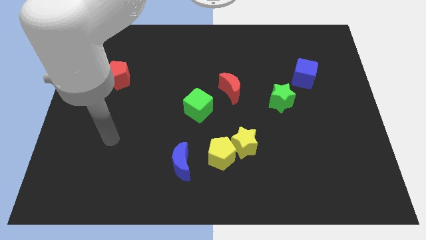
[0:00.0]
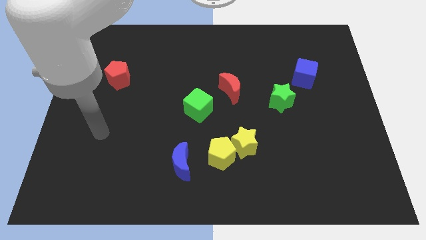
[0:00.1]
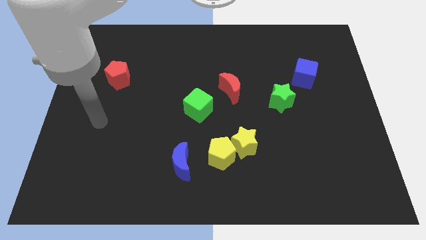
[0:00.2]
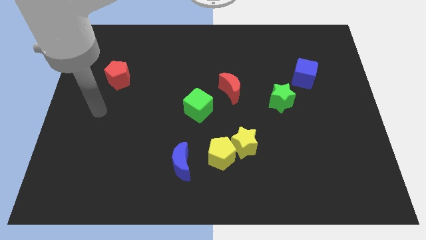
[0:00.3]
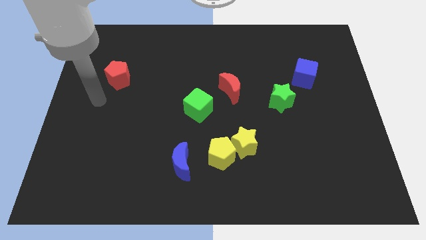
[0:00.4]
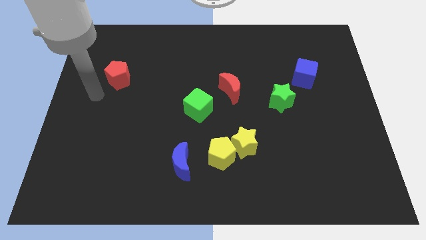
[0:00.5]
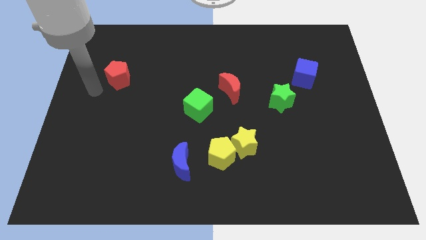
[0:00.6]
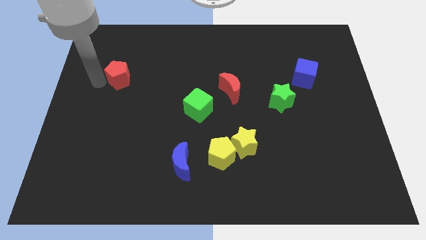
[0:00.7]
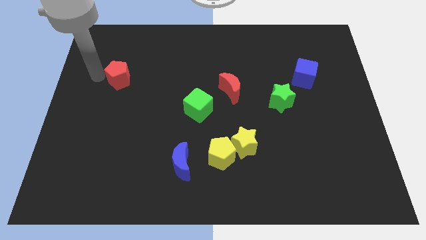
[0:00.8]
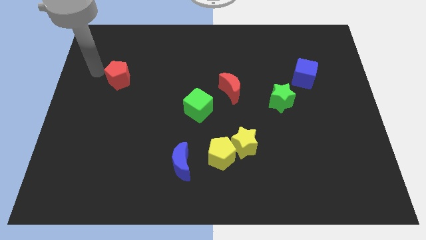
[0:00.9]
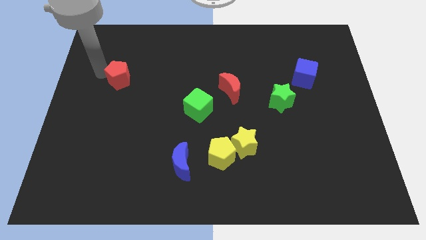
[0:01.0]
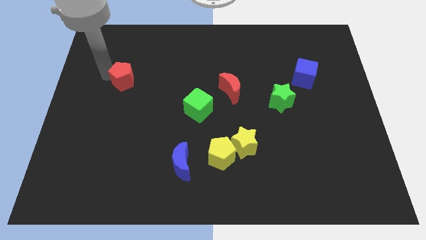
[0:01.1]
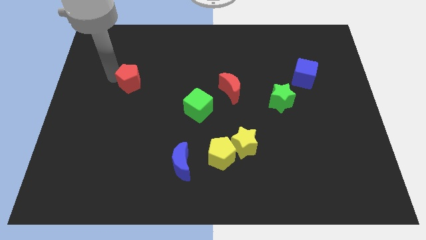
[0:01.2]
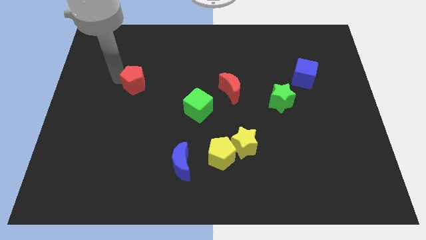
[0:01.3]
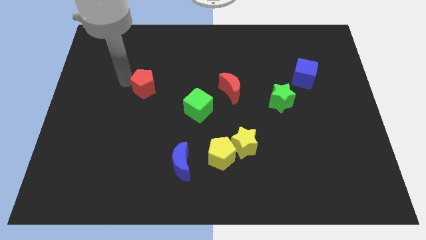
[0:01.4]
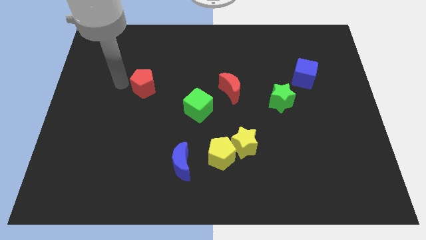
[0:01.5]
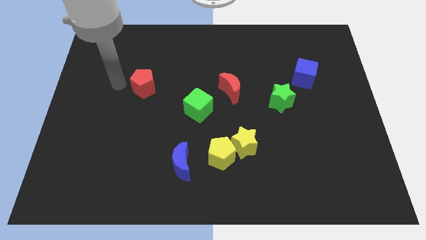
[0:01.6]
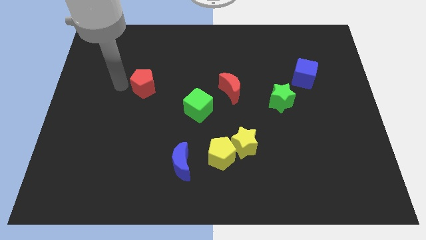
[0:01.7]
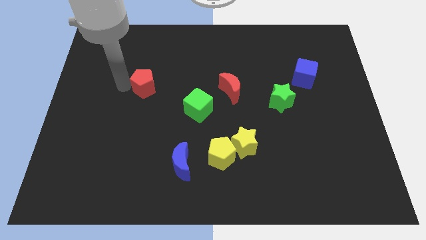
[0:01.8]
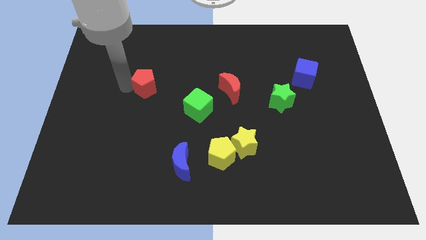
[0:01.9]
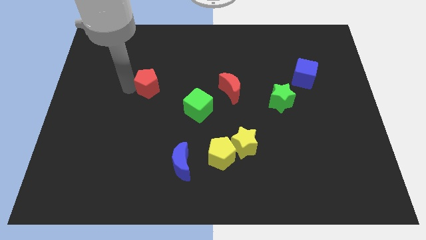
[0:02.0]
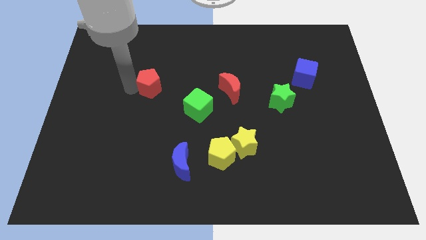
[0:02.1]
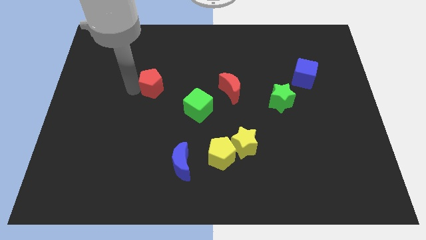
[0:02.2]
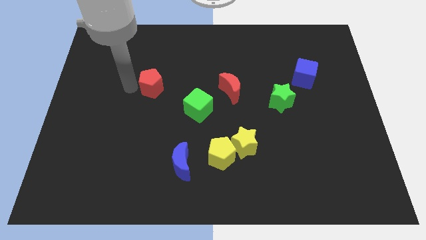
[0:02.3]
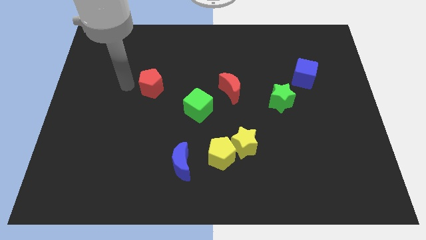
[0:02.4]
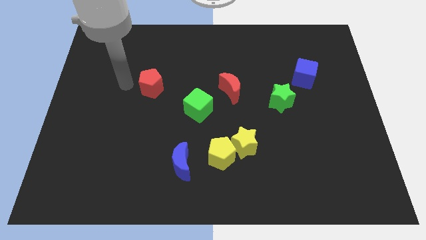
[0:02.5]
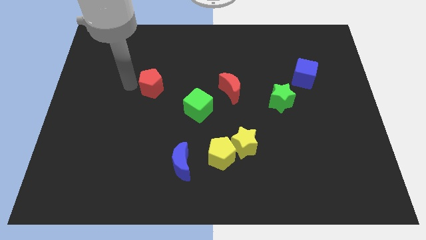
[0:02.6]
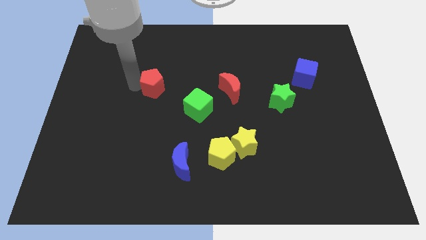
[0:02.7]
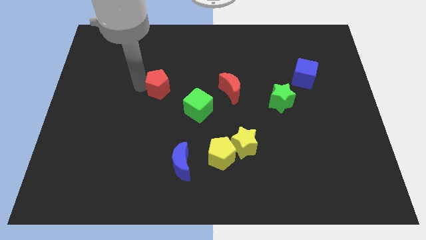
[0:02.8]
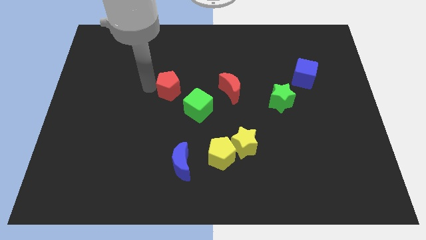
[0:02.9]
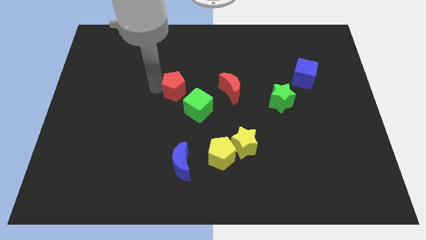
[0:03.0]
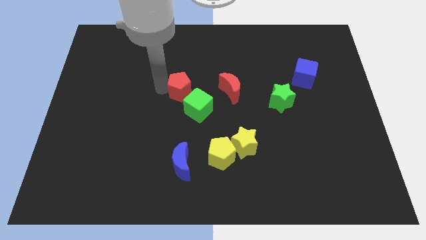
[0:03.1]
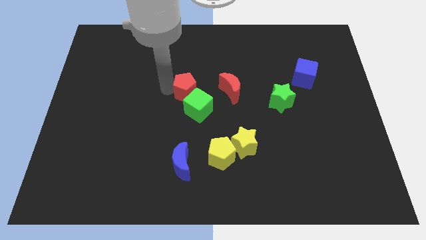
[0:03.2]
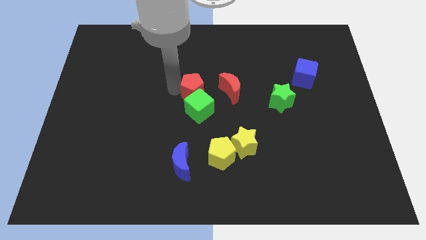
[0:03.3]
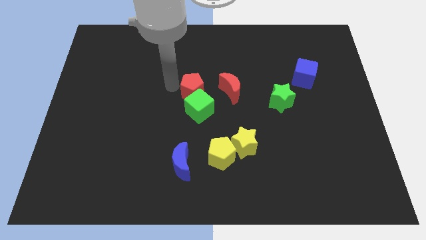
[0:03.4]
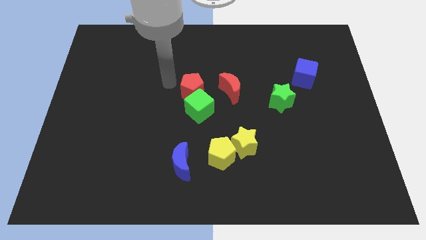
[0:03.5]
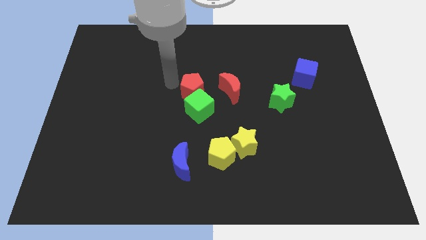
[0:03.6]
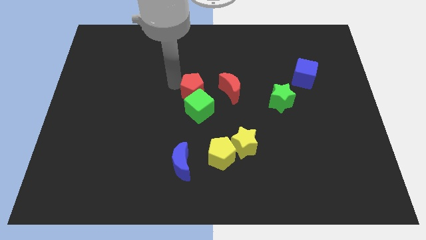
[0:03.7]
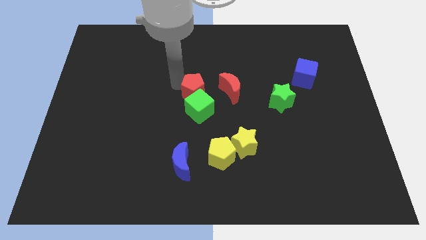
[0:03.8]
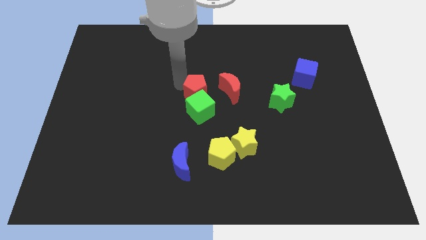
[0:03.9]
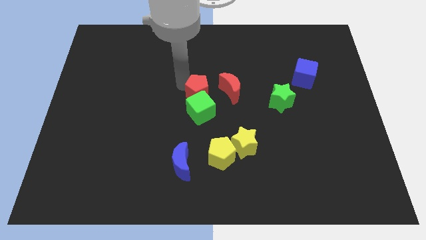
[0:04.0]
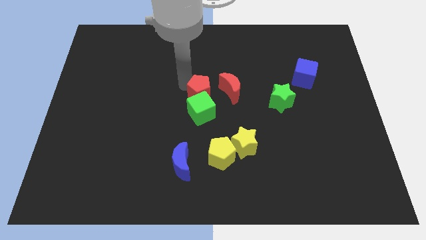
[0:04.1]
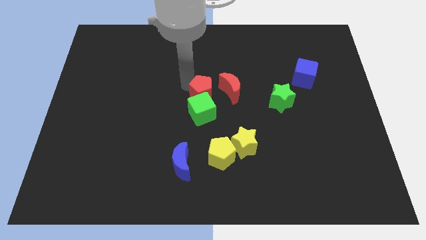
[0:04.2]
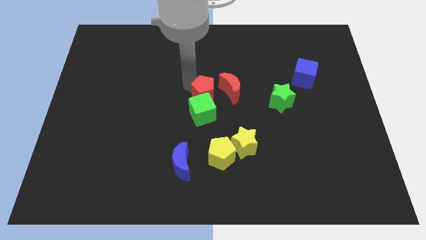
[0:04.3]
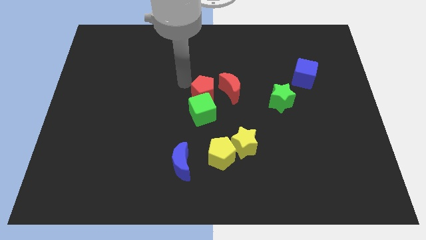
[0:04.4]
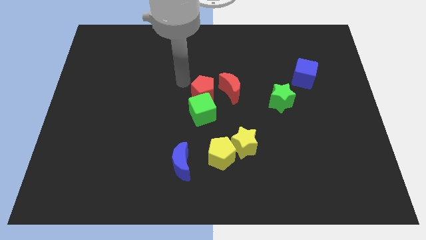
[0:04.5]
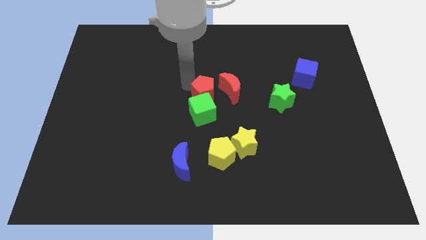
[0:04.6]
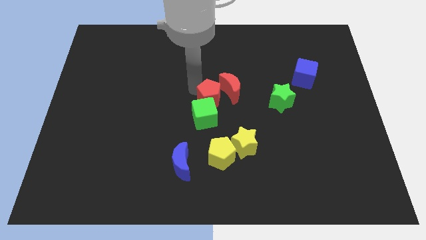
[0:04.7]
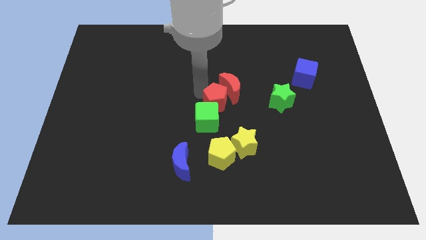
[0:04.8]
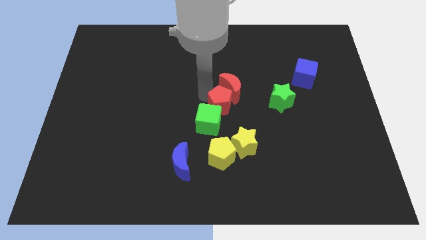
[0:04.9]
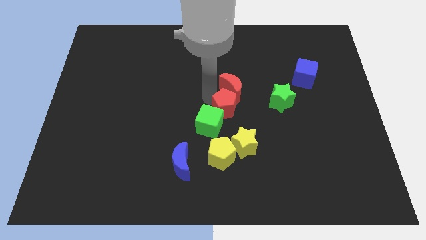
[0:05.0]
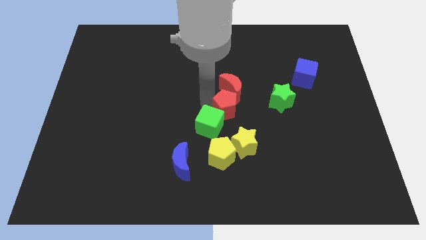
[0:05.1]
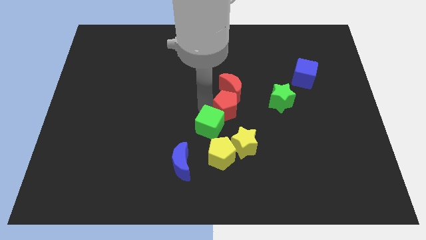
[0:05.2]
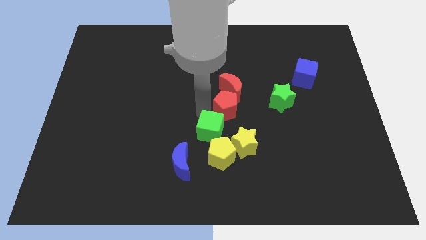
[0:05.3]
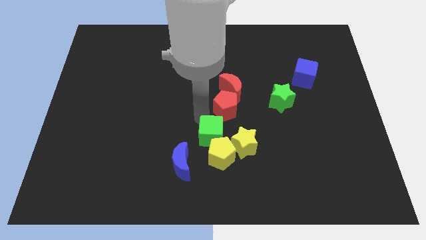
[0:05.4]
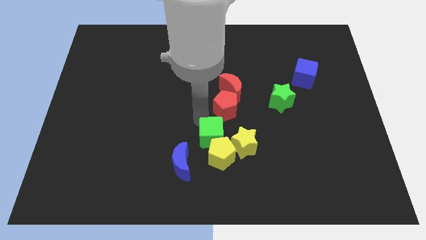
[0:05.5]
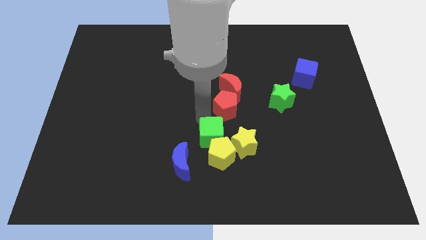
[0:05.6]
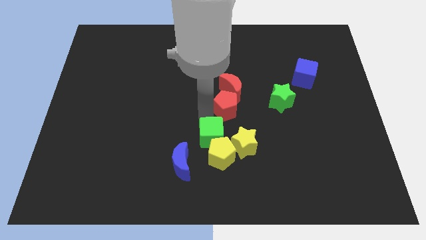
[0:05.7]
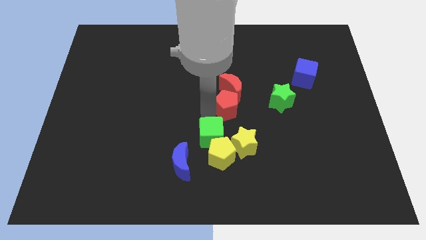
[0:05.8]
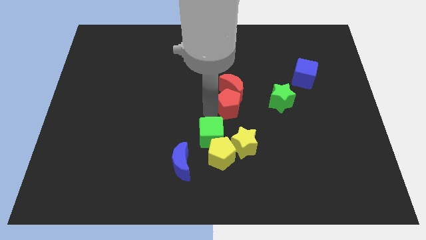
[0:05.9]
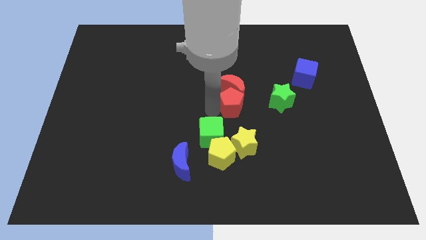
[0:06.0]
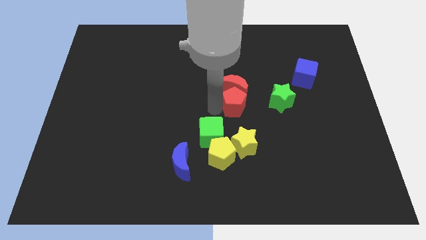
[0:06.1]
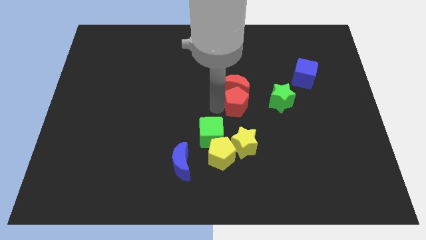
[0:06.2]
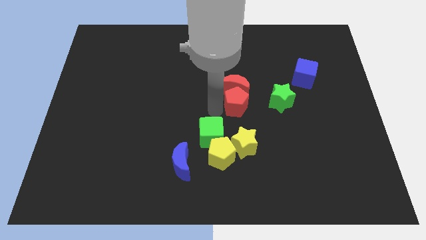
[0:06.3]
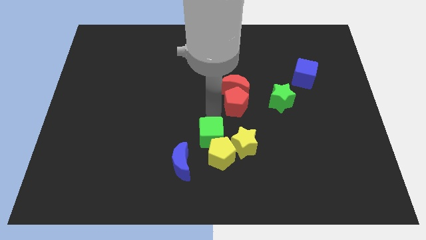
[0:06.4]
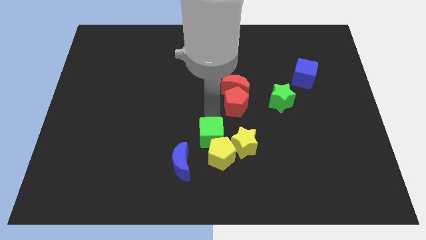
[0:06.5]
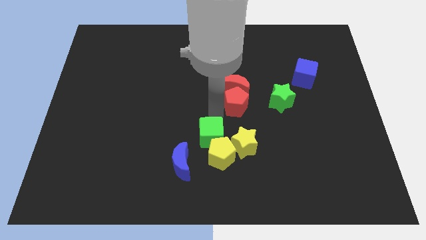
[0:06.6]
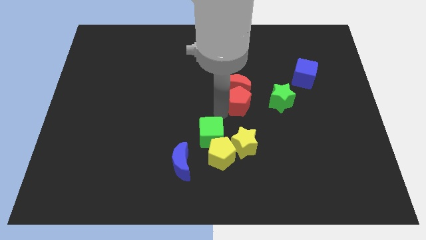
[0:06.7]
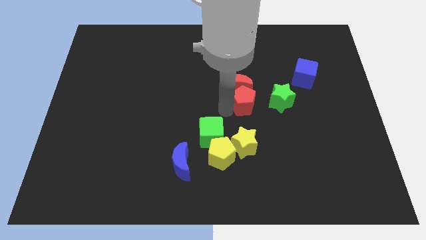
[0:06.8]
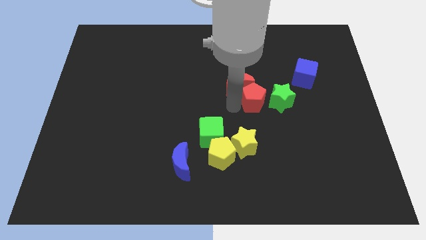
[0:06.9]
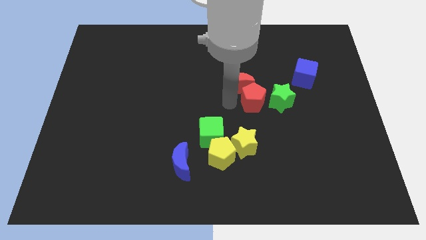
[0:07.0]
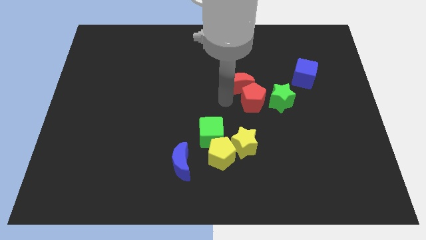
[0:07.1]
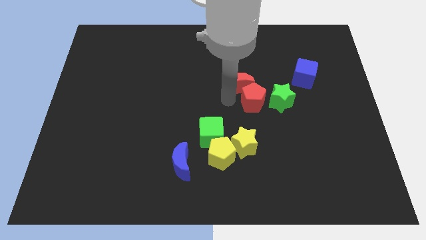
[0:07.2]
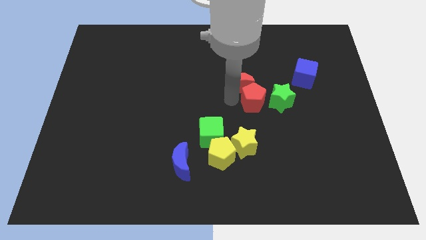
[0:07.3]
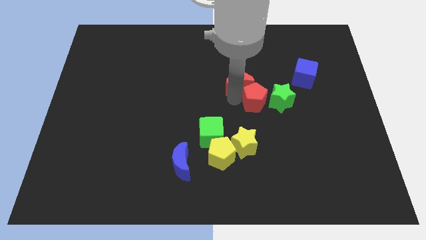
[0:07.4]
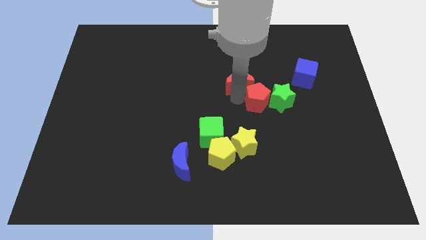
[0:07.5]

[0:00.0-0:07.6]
slide the red pentagon close to the green star
